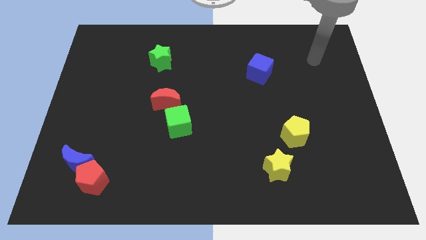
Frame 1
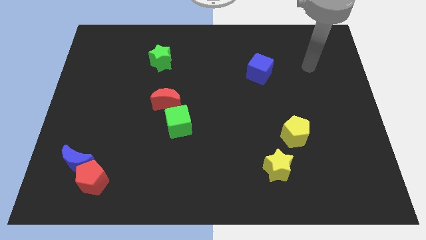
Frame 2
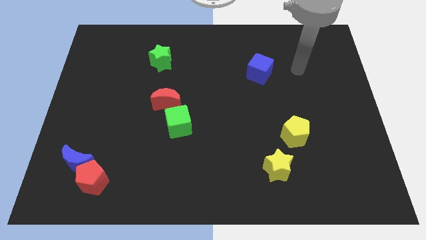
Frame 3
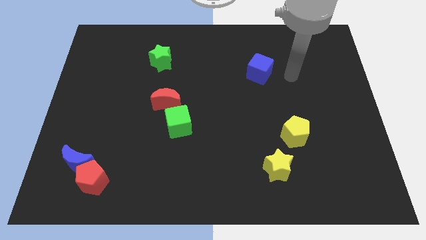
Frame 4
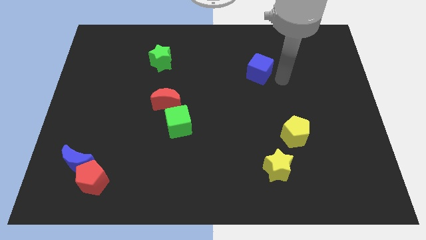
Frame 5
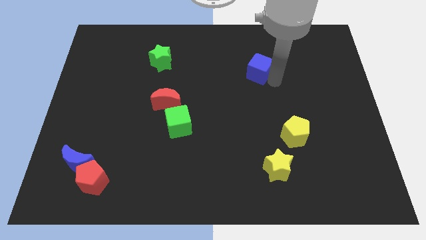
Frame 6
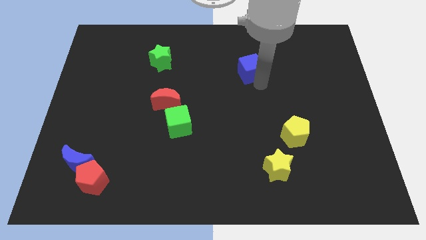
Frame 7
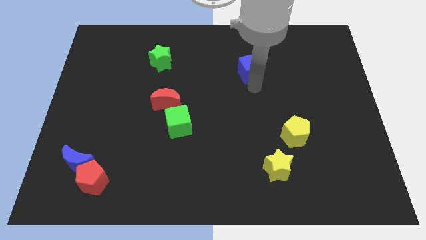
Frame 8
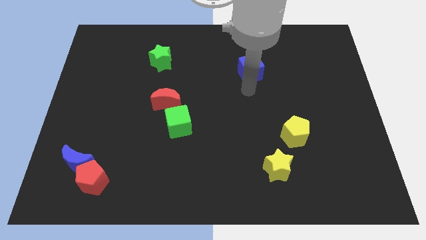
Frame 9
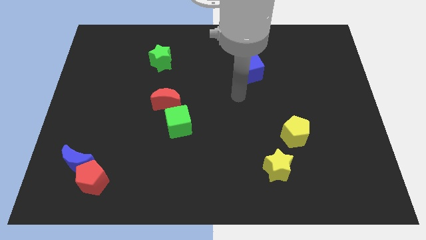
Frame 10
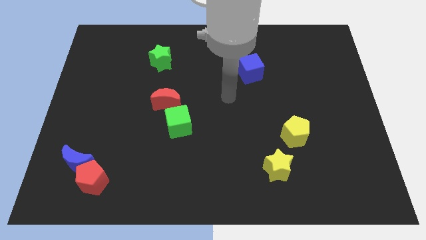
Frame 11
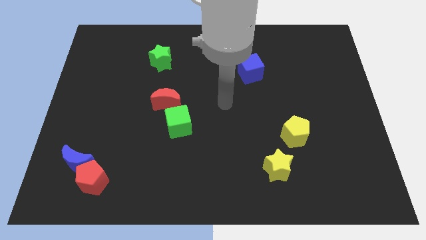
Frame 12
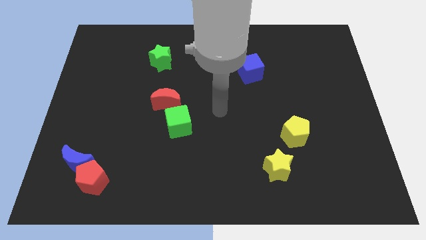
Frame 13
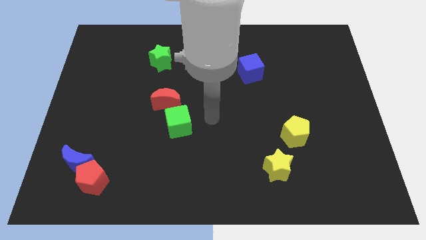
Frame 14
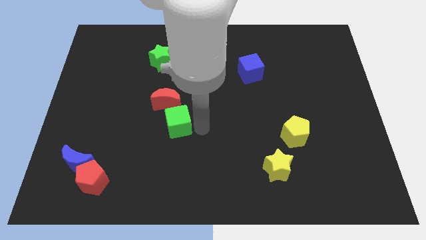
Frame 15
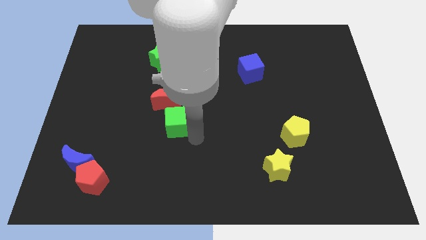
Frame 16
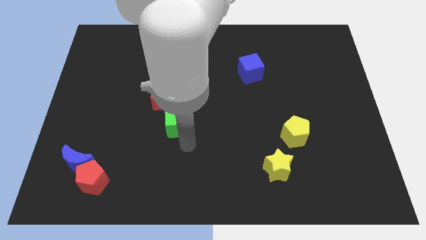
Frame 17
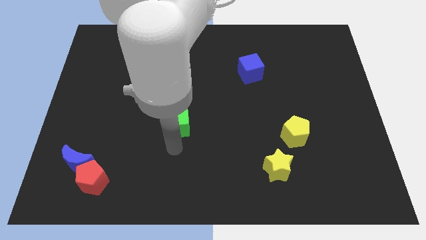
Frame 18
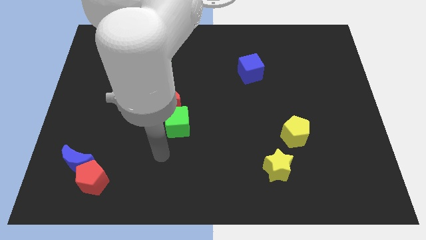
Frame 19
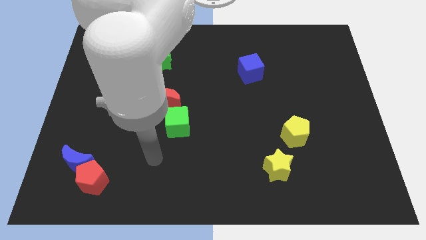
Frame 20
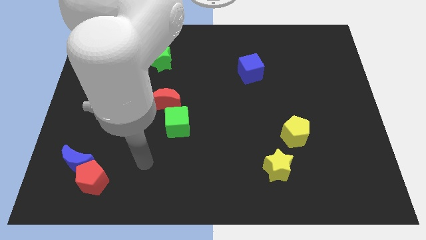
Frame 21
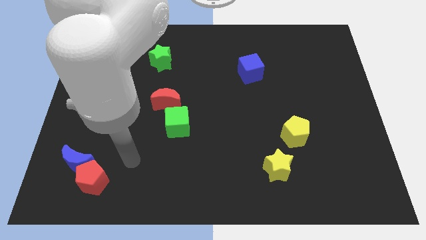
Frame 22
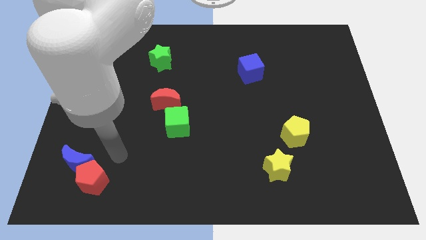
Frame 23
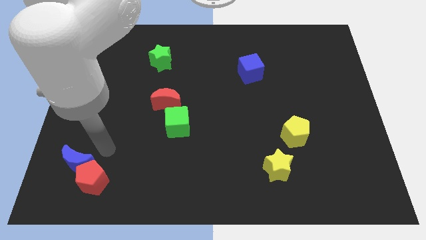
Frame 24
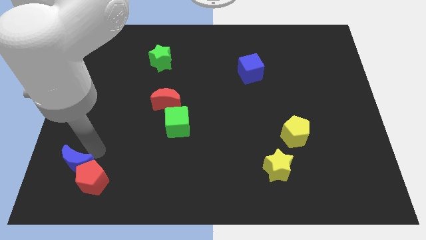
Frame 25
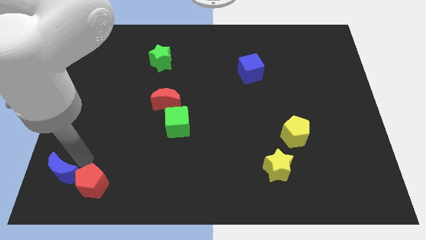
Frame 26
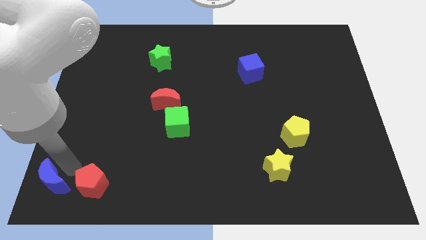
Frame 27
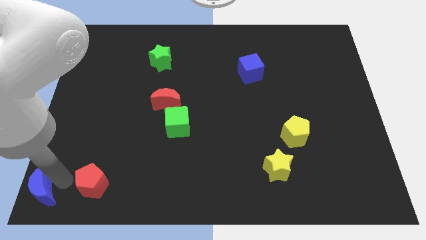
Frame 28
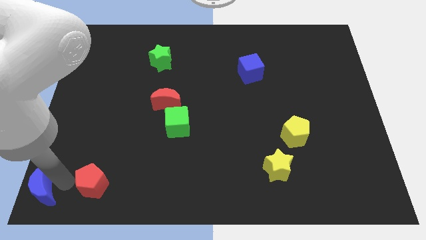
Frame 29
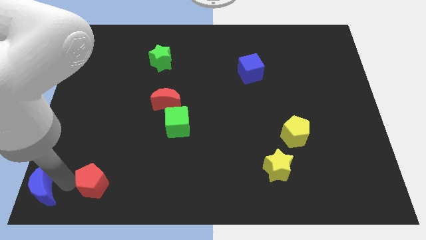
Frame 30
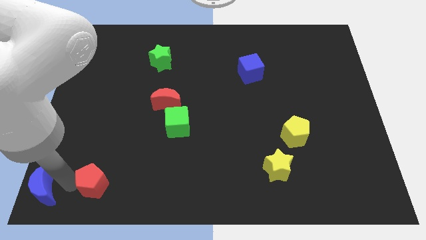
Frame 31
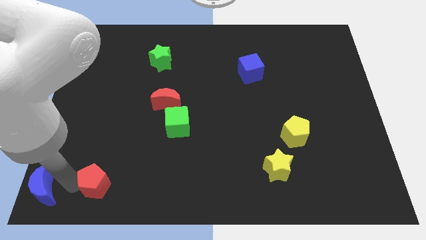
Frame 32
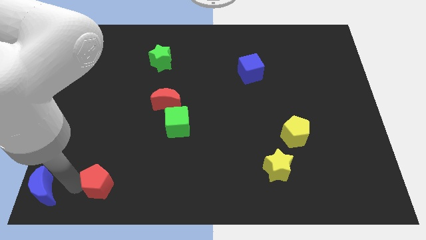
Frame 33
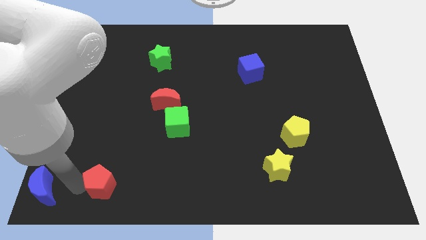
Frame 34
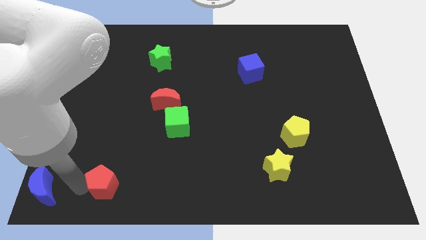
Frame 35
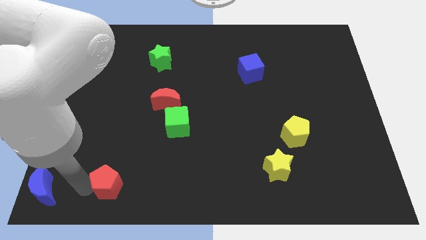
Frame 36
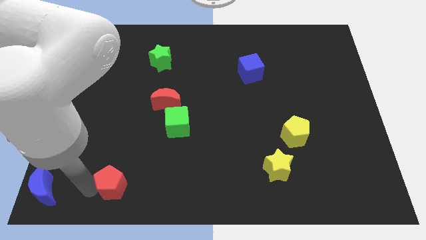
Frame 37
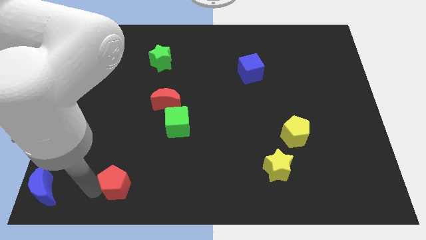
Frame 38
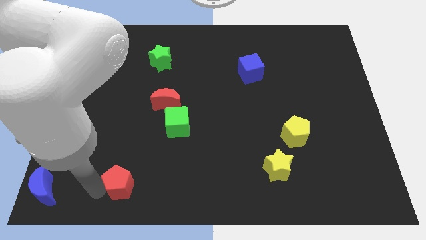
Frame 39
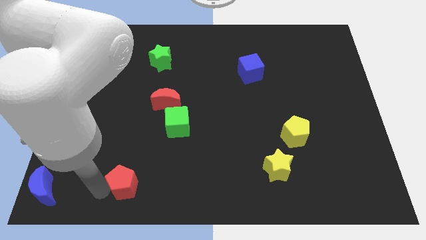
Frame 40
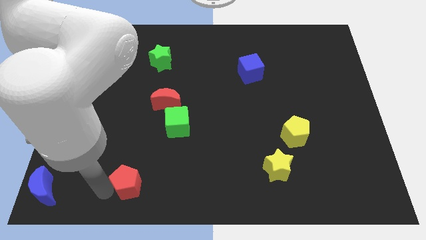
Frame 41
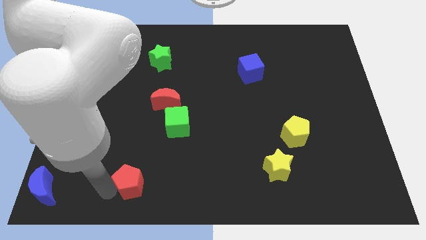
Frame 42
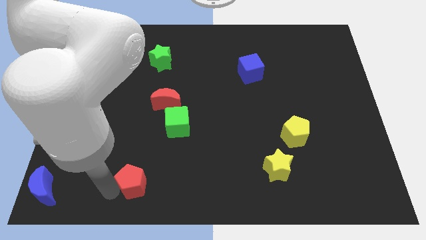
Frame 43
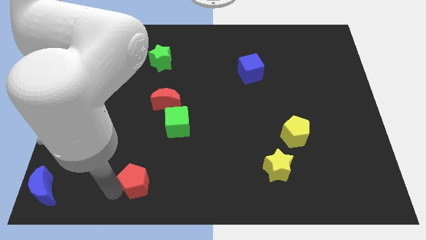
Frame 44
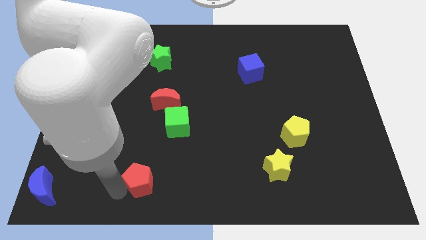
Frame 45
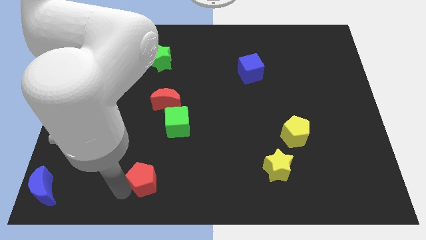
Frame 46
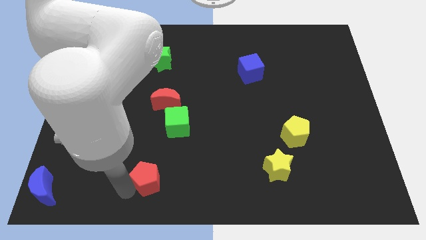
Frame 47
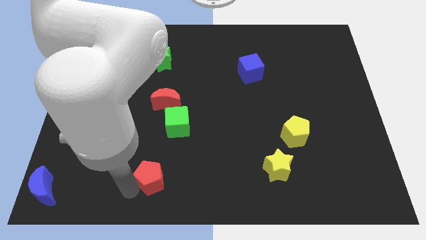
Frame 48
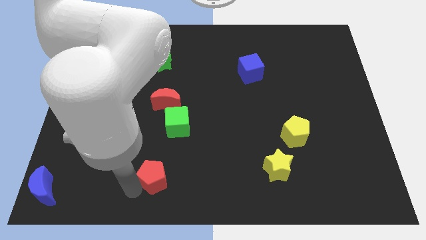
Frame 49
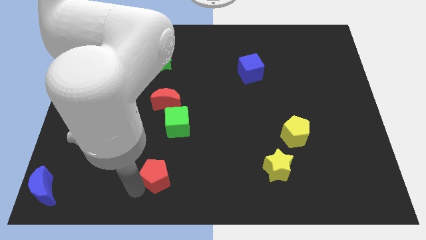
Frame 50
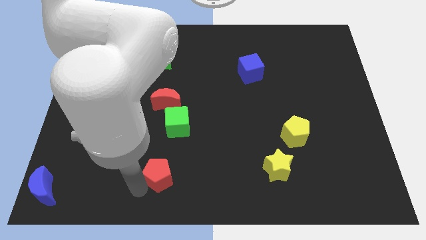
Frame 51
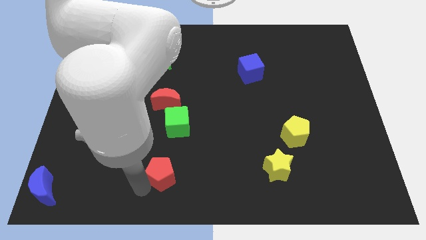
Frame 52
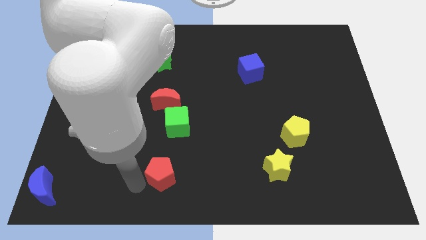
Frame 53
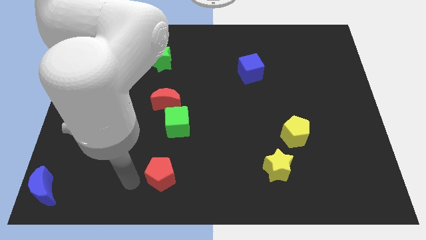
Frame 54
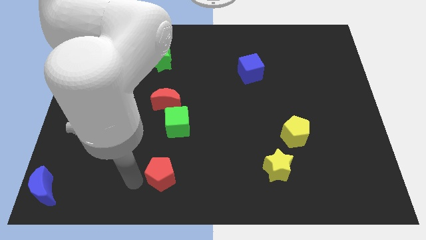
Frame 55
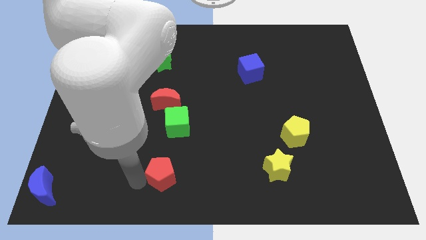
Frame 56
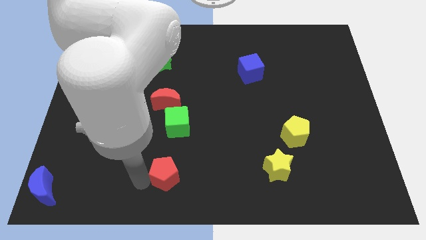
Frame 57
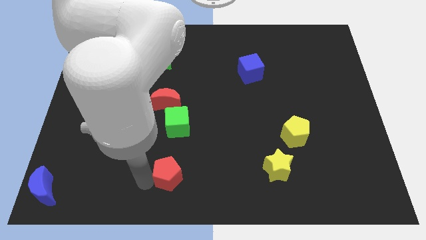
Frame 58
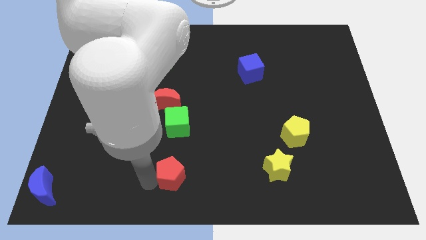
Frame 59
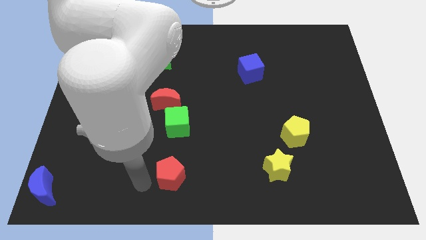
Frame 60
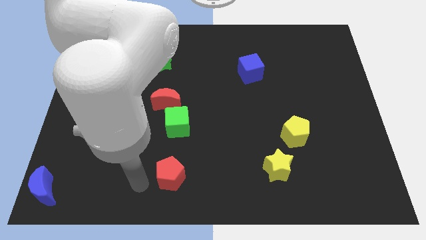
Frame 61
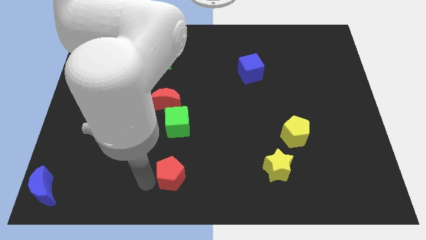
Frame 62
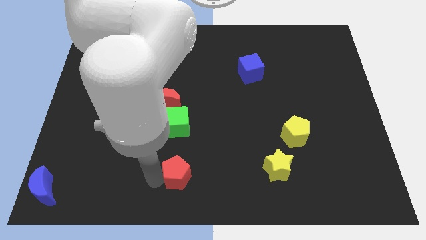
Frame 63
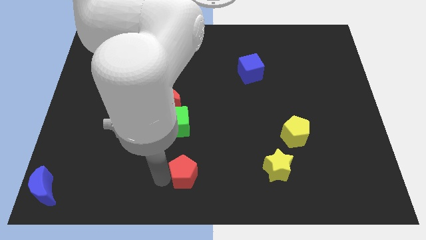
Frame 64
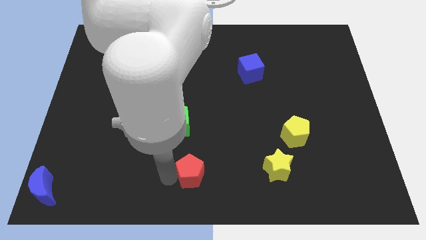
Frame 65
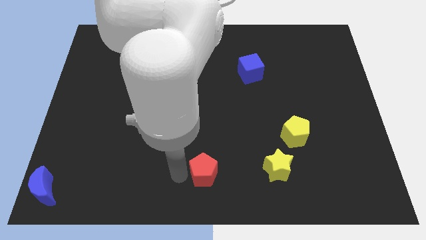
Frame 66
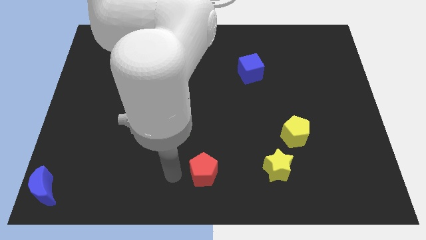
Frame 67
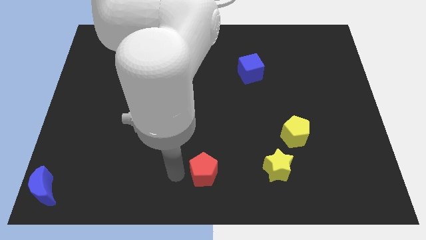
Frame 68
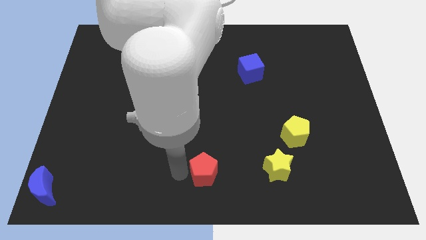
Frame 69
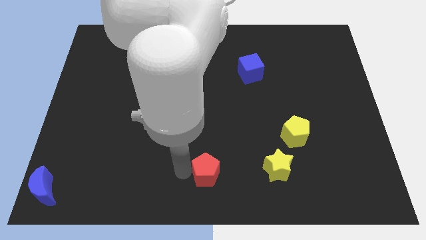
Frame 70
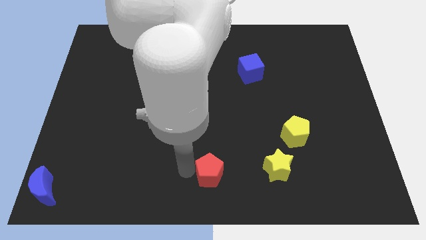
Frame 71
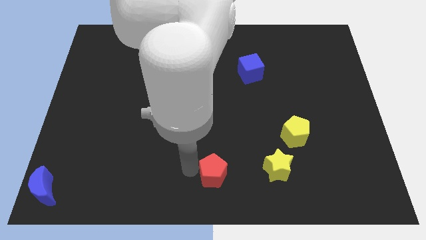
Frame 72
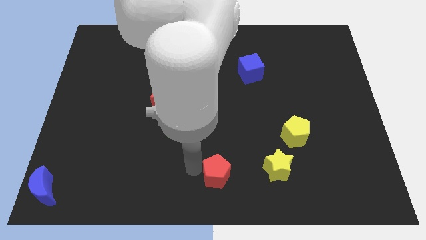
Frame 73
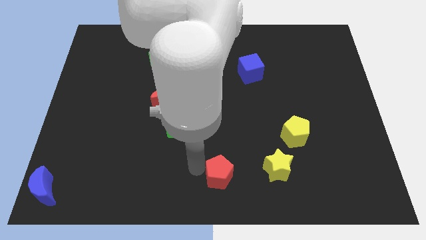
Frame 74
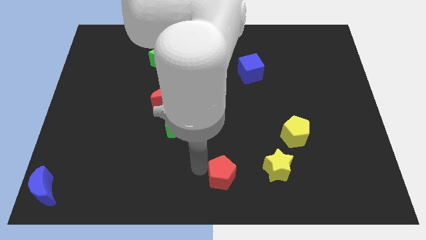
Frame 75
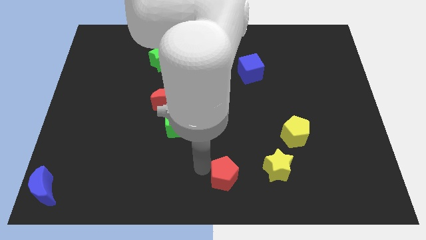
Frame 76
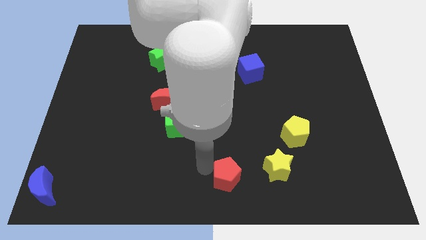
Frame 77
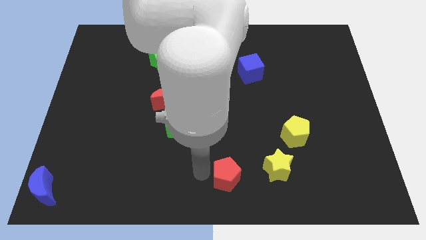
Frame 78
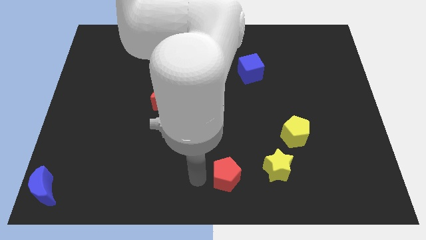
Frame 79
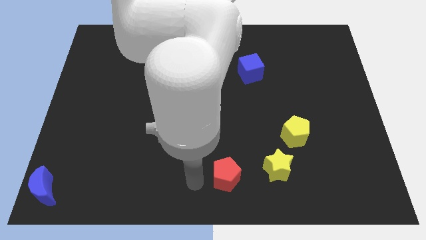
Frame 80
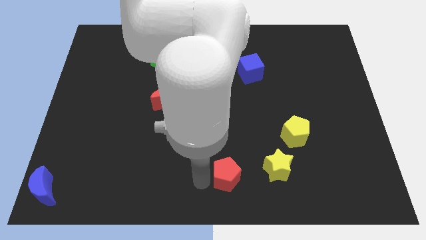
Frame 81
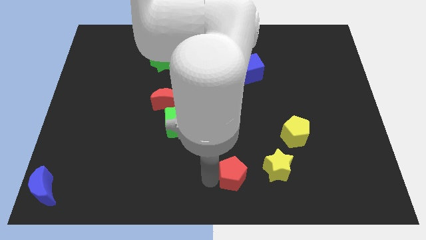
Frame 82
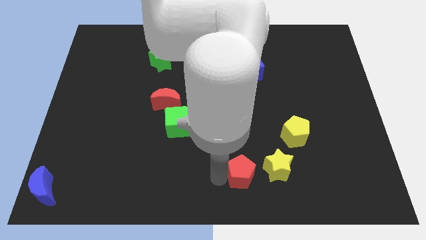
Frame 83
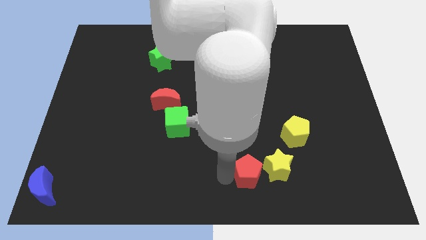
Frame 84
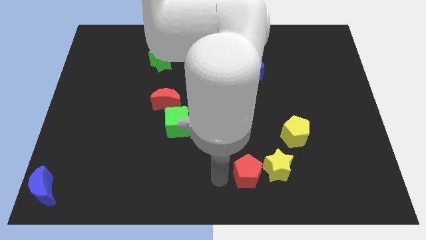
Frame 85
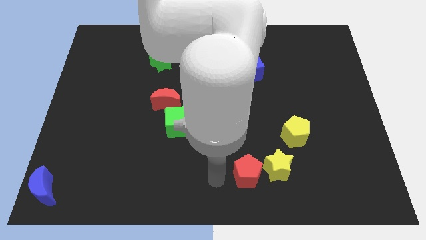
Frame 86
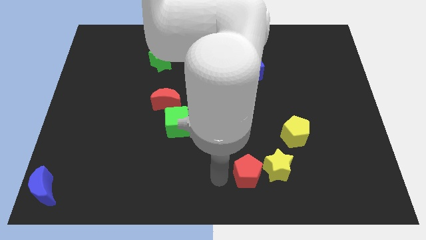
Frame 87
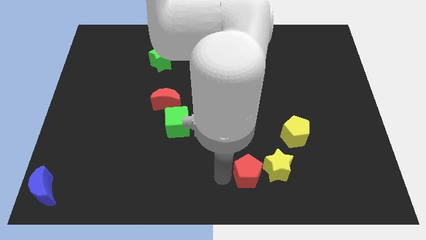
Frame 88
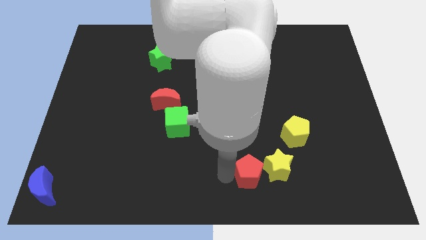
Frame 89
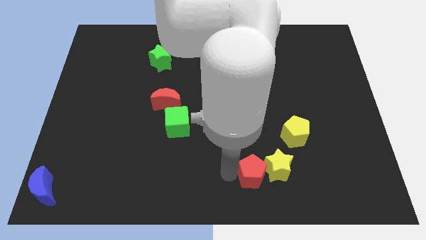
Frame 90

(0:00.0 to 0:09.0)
push the red pentagon next to the yellow star
